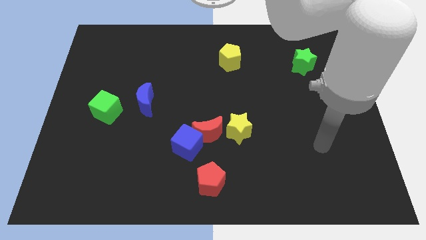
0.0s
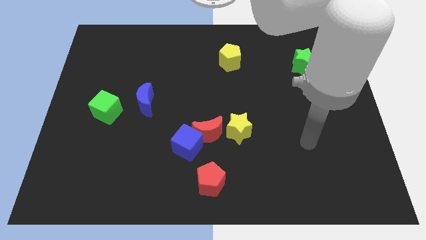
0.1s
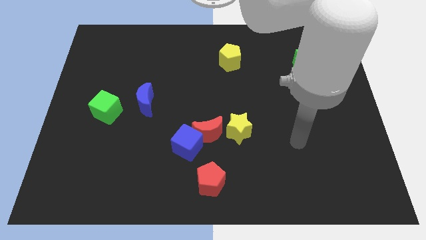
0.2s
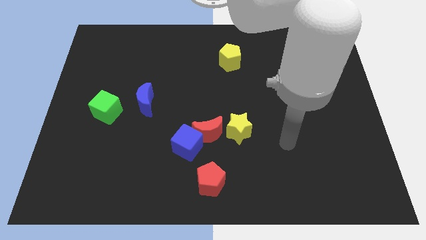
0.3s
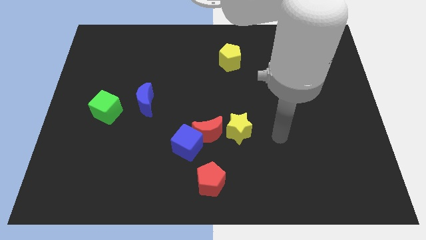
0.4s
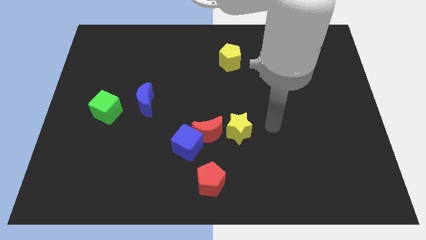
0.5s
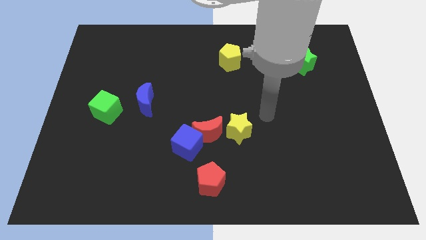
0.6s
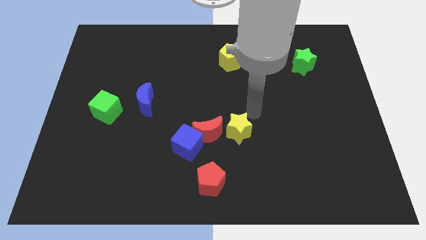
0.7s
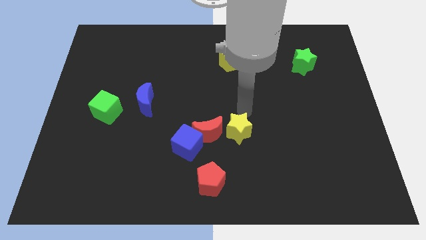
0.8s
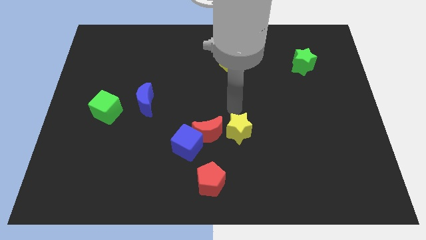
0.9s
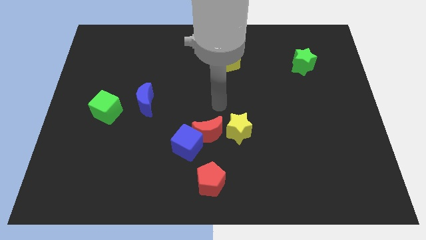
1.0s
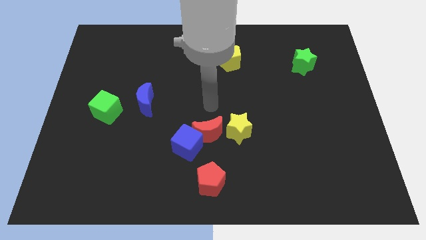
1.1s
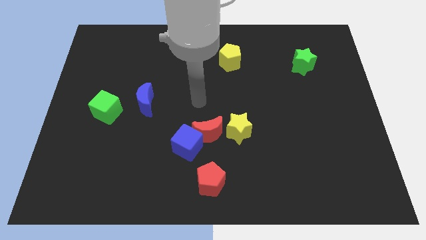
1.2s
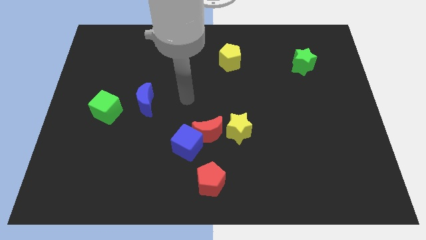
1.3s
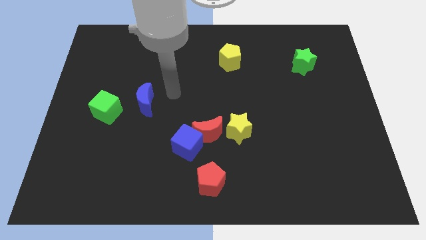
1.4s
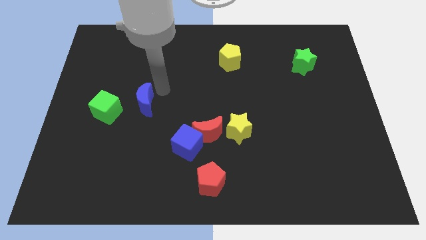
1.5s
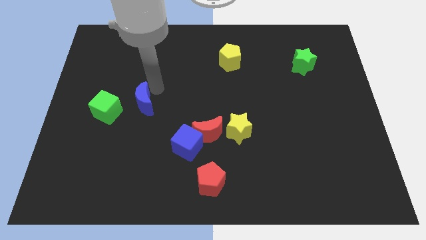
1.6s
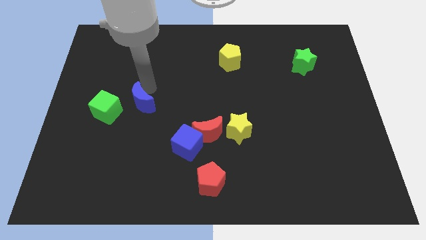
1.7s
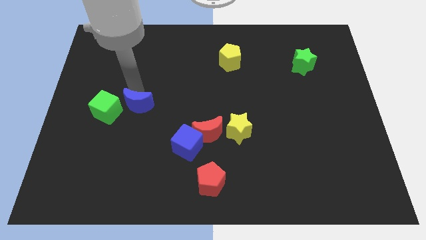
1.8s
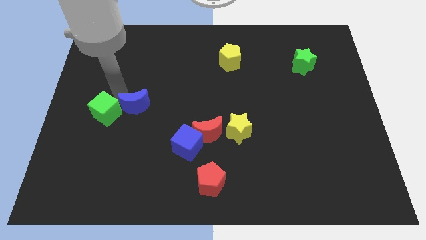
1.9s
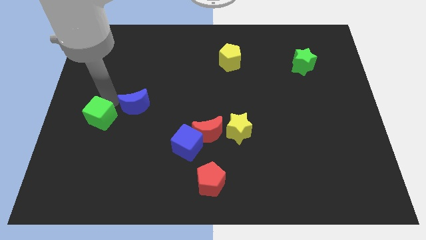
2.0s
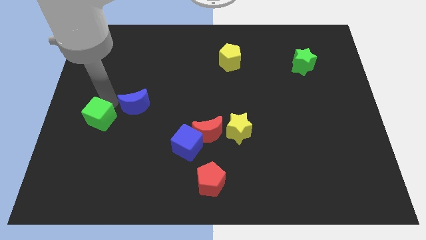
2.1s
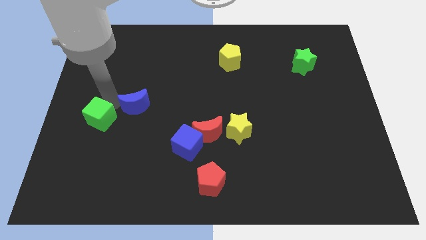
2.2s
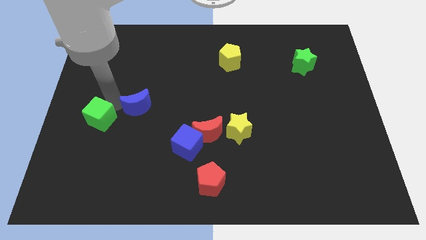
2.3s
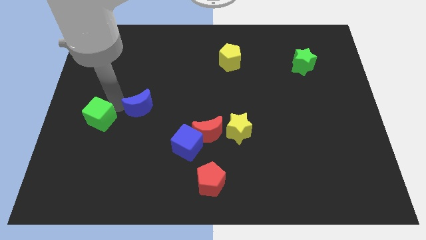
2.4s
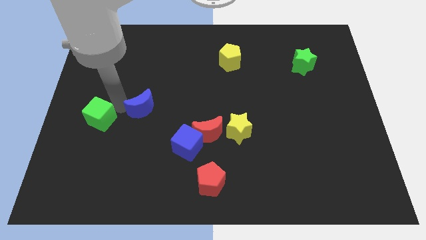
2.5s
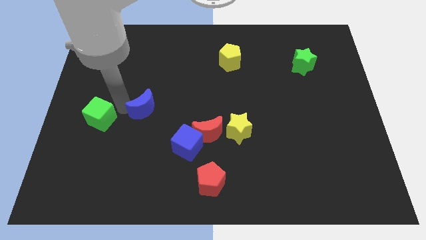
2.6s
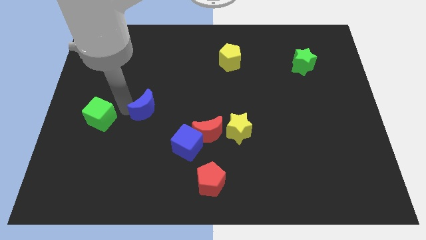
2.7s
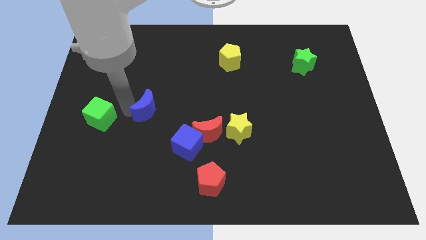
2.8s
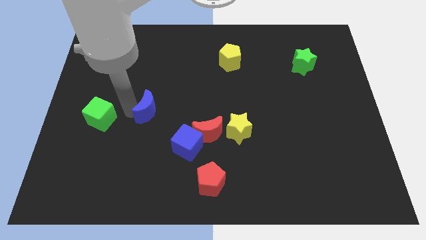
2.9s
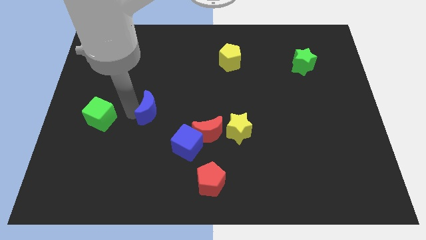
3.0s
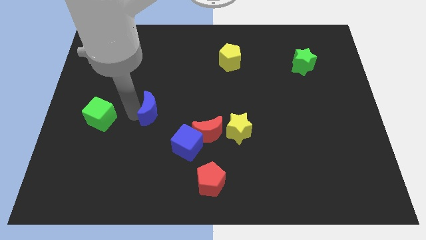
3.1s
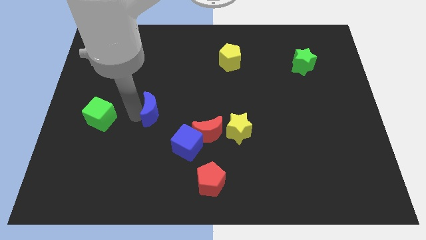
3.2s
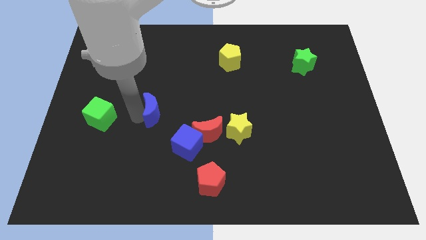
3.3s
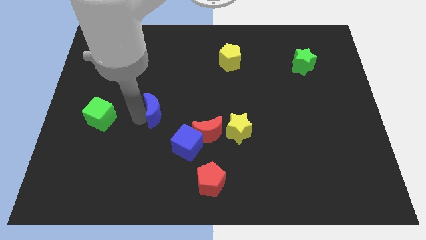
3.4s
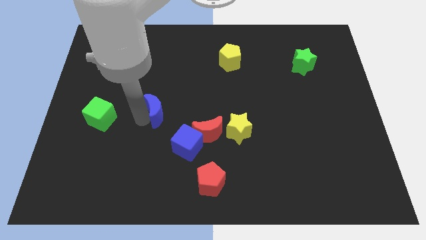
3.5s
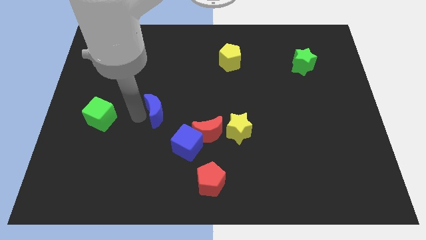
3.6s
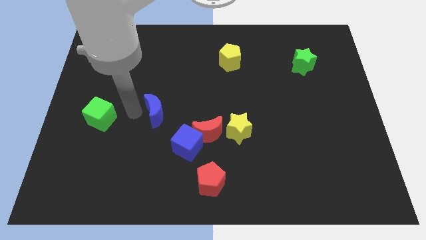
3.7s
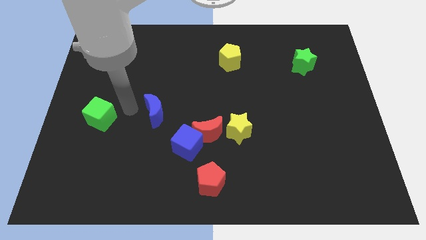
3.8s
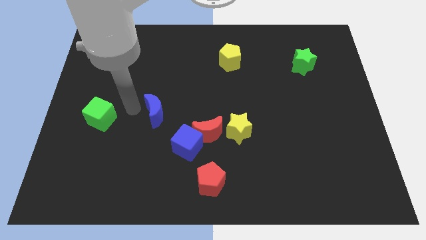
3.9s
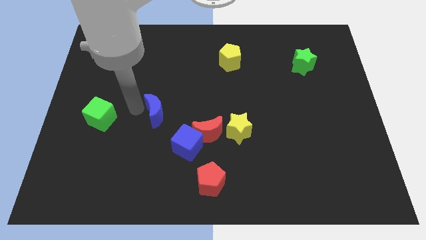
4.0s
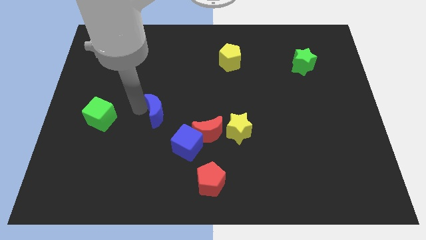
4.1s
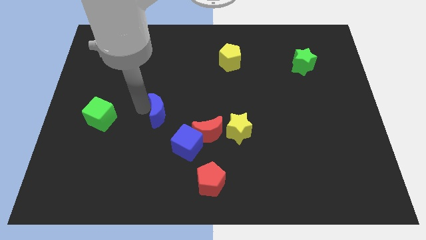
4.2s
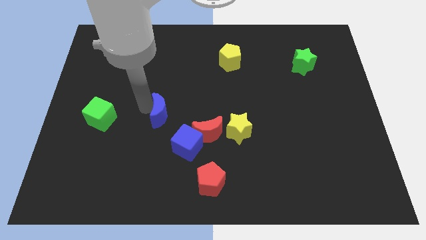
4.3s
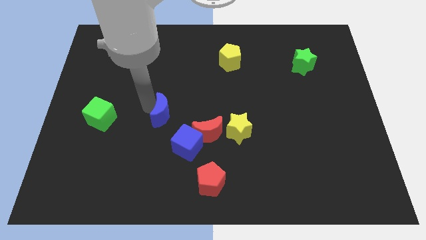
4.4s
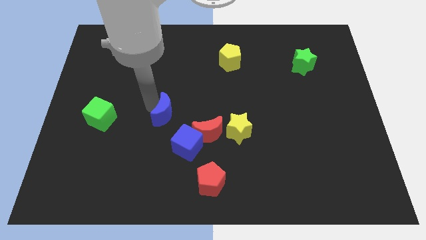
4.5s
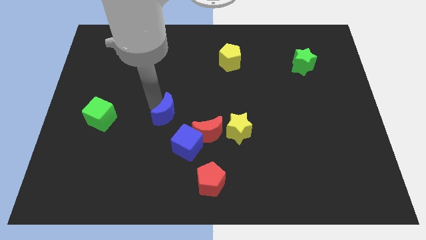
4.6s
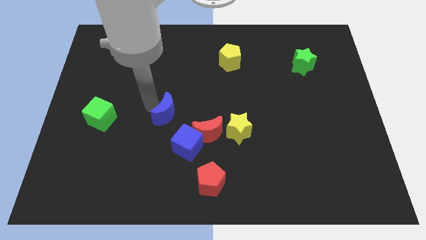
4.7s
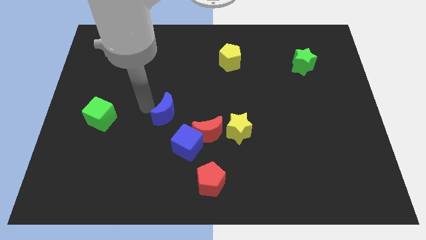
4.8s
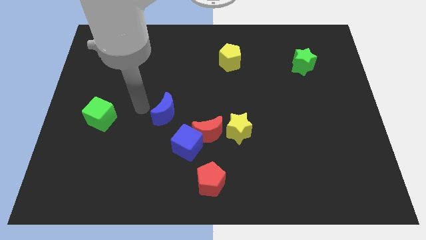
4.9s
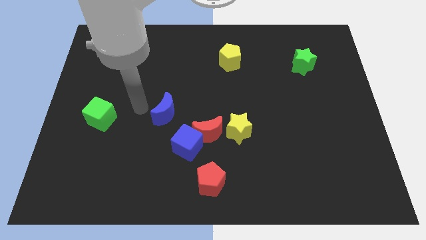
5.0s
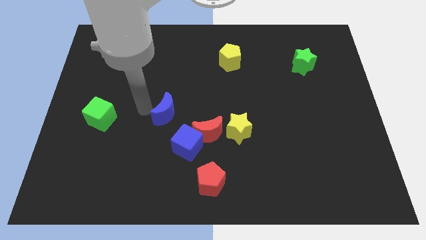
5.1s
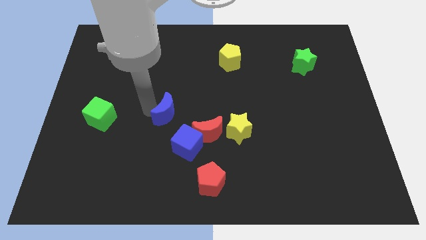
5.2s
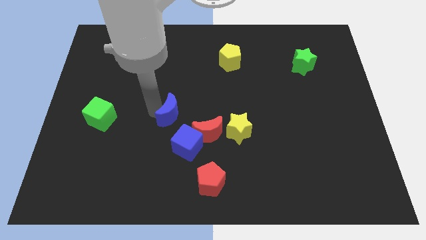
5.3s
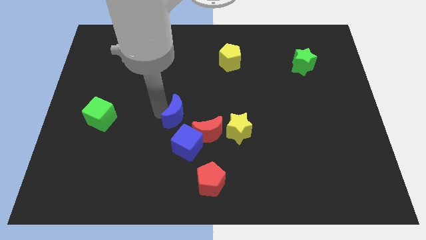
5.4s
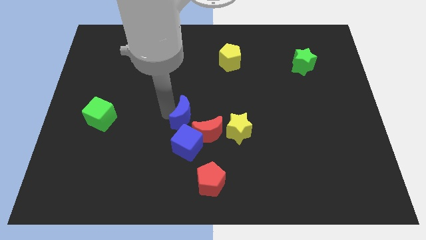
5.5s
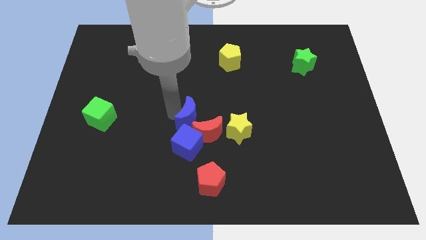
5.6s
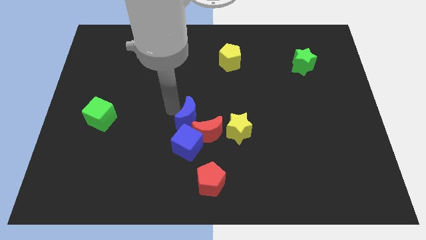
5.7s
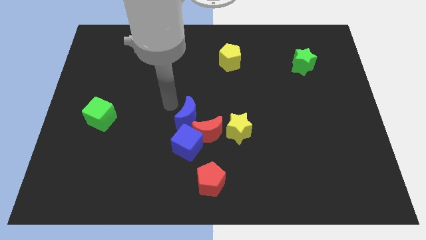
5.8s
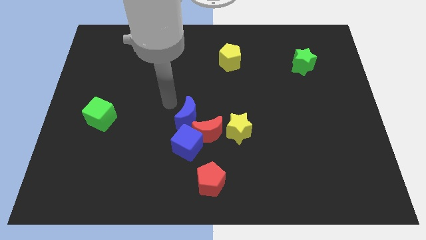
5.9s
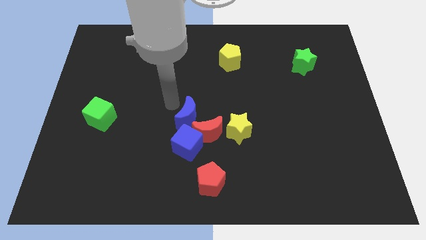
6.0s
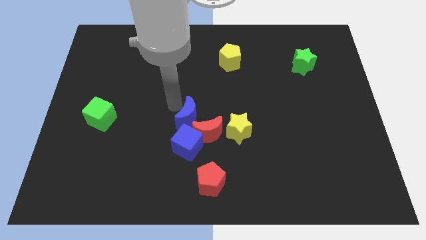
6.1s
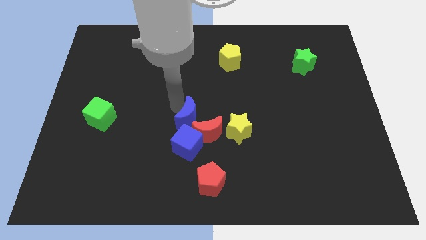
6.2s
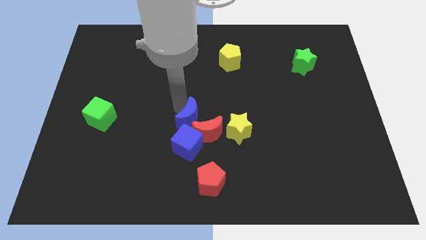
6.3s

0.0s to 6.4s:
slide the blue moon towards the red moon

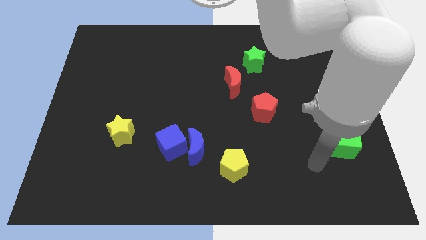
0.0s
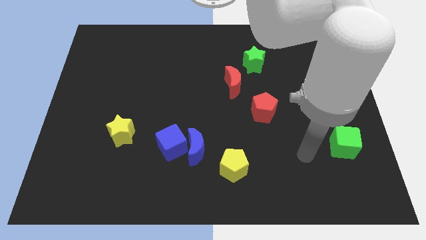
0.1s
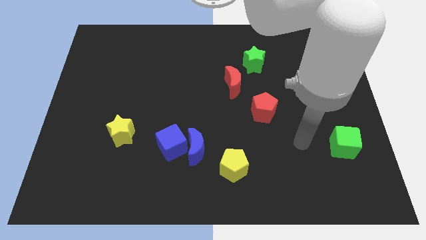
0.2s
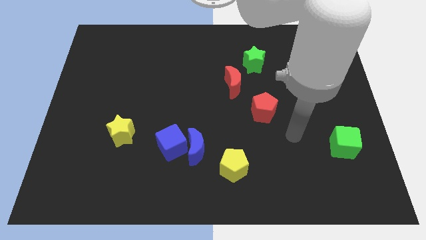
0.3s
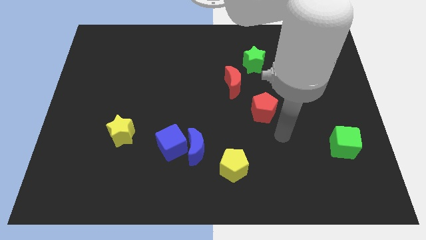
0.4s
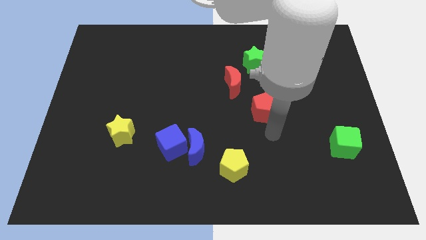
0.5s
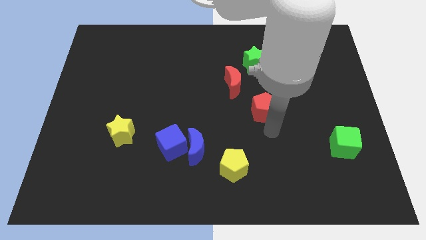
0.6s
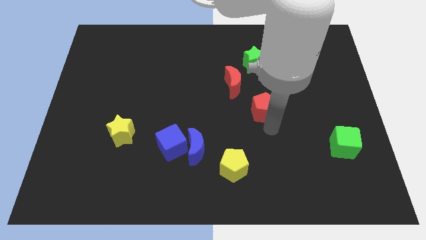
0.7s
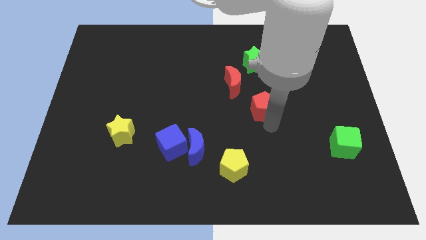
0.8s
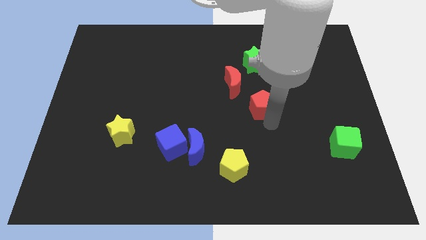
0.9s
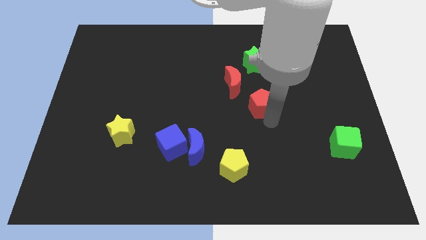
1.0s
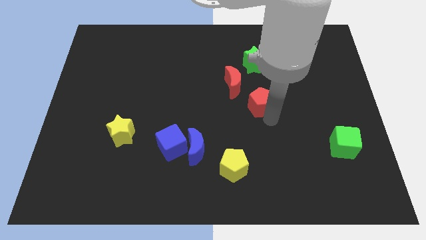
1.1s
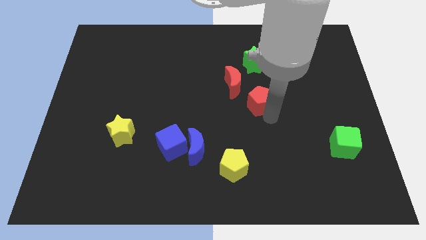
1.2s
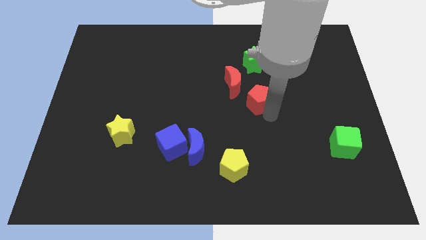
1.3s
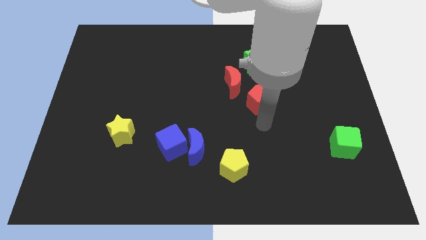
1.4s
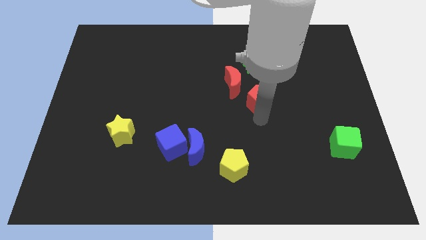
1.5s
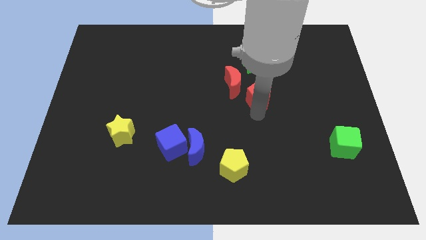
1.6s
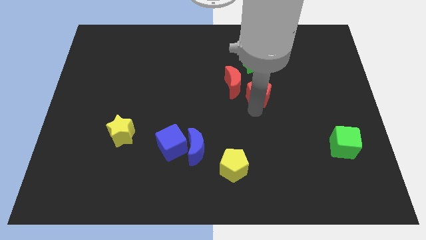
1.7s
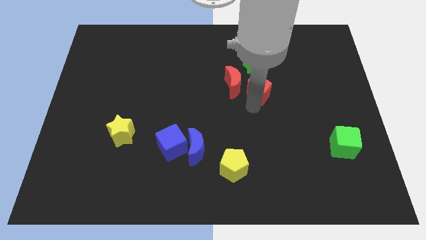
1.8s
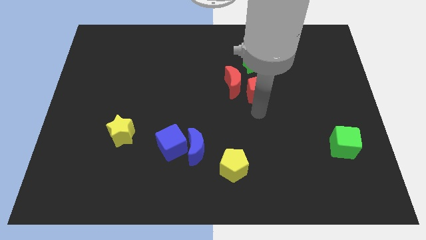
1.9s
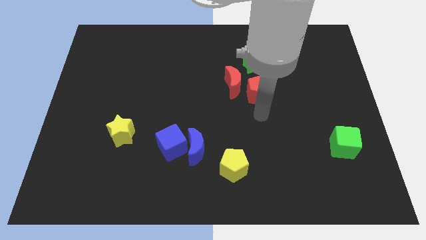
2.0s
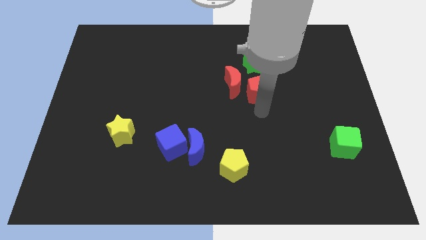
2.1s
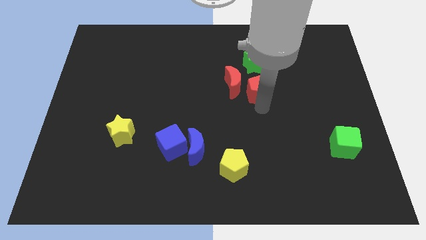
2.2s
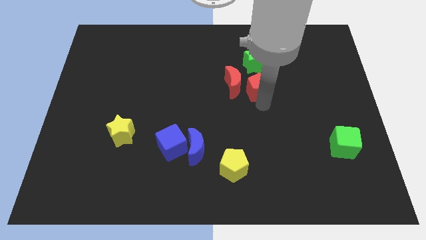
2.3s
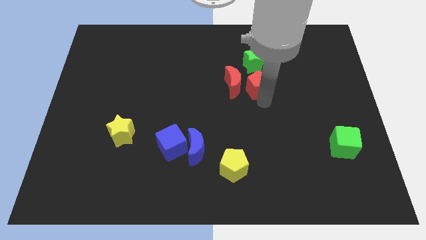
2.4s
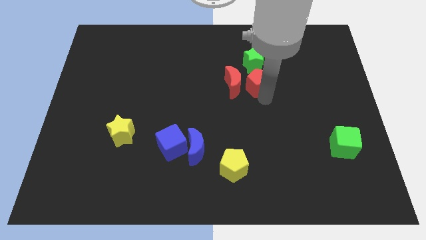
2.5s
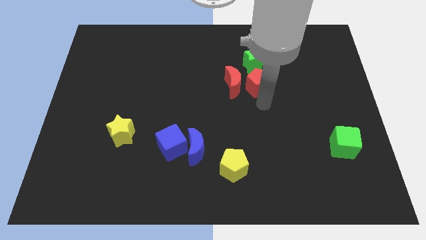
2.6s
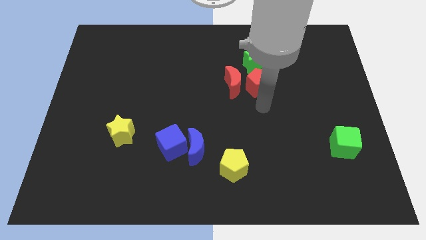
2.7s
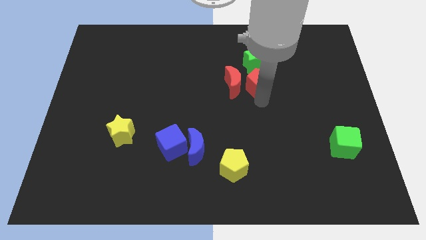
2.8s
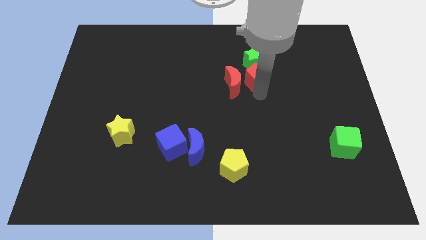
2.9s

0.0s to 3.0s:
move the red pentagon to the green star
